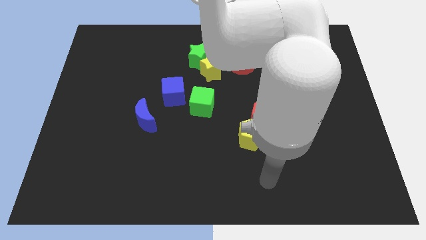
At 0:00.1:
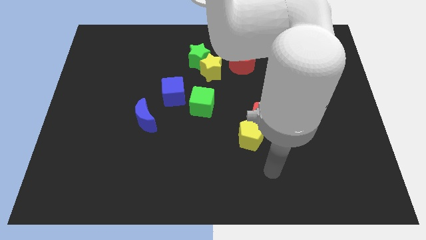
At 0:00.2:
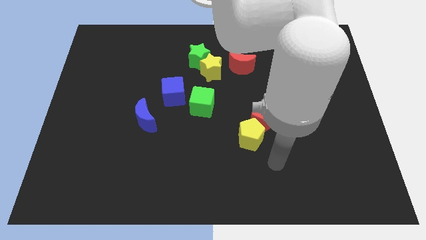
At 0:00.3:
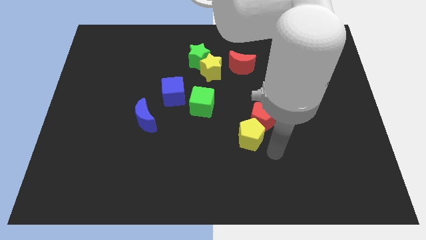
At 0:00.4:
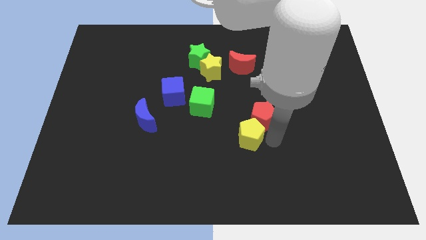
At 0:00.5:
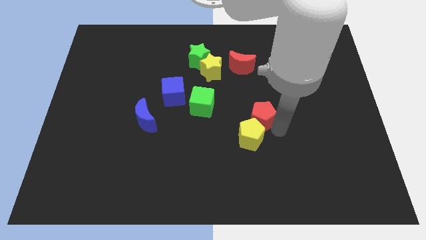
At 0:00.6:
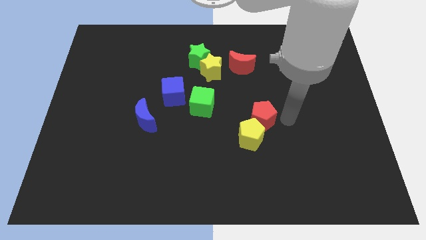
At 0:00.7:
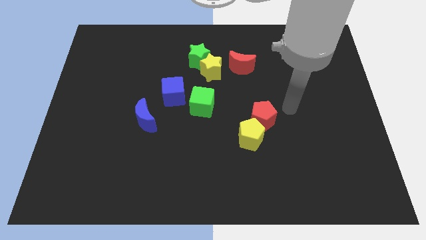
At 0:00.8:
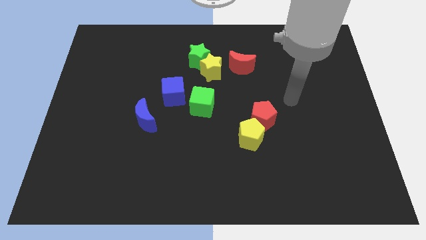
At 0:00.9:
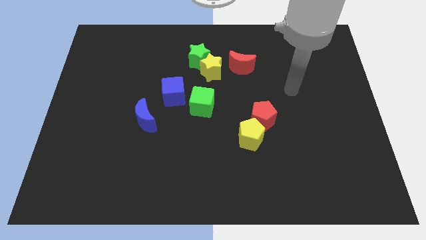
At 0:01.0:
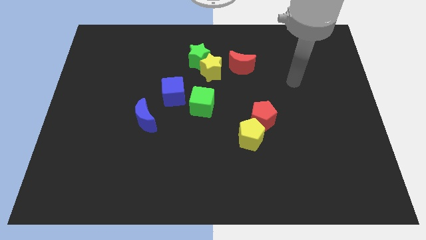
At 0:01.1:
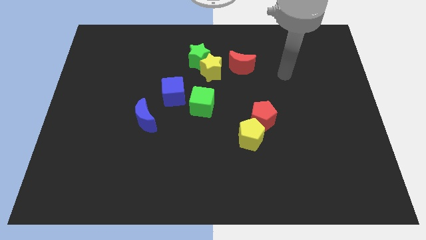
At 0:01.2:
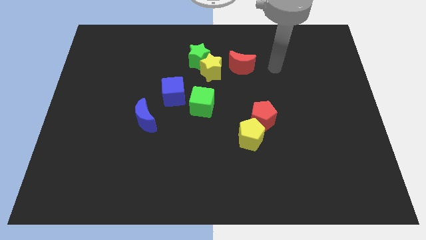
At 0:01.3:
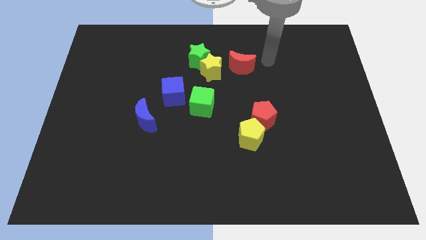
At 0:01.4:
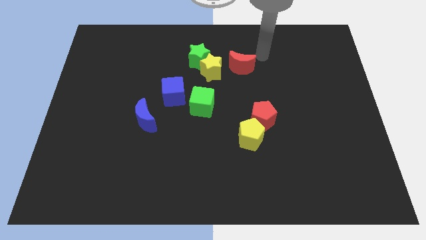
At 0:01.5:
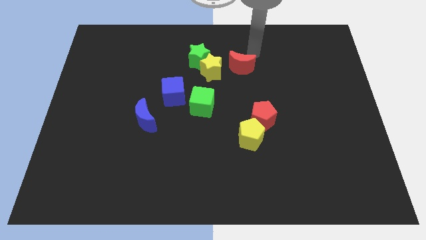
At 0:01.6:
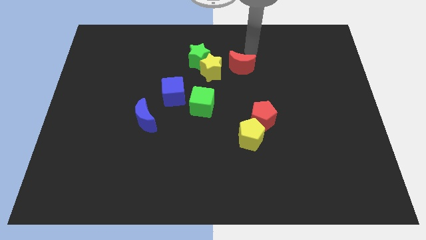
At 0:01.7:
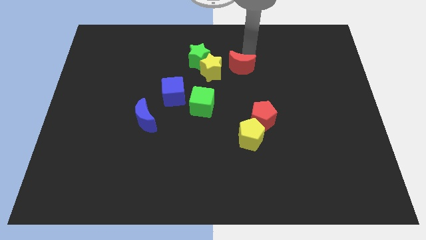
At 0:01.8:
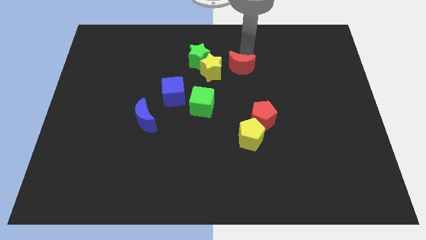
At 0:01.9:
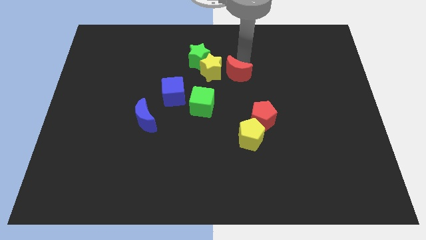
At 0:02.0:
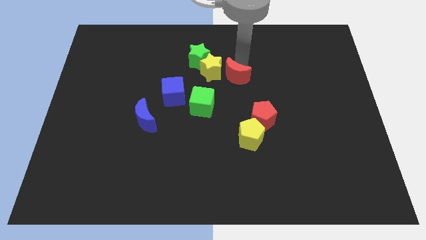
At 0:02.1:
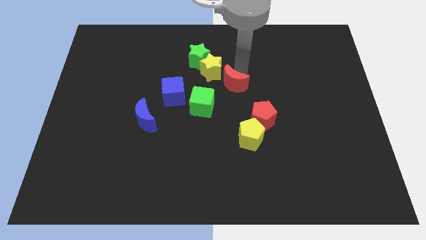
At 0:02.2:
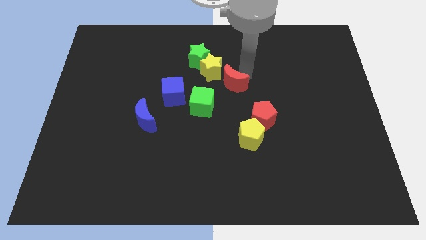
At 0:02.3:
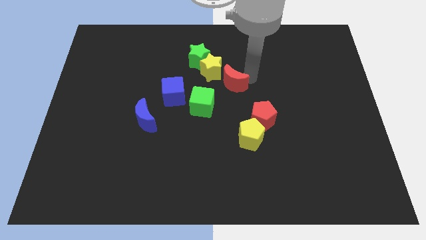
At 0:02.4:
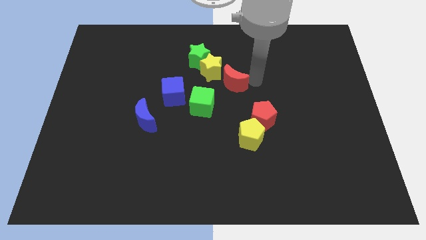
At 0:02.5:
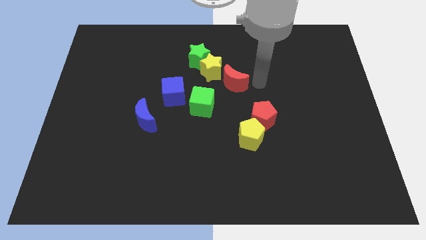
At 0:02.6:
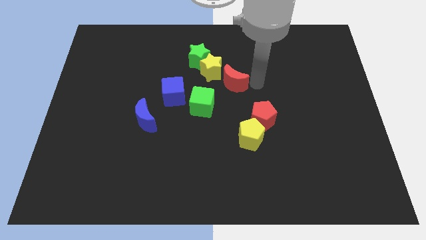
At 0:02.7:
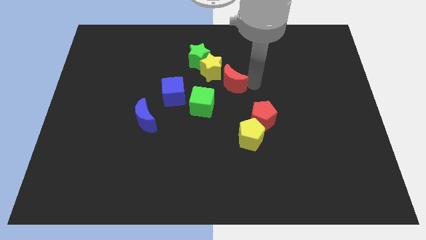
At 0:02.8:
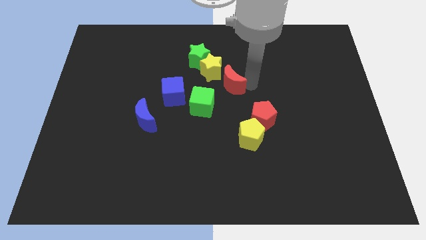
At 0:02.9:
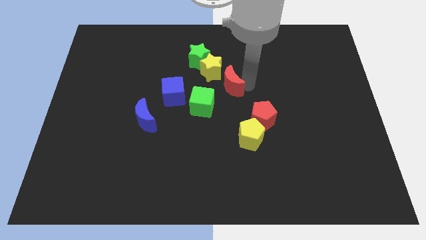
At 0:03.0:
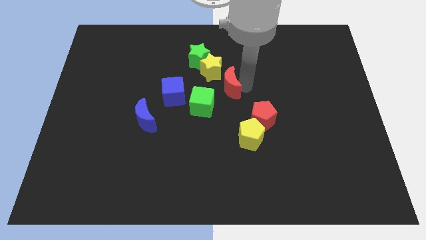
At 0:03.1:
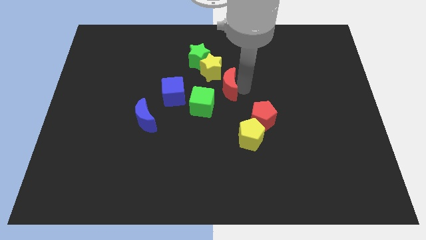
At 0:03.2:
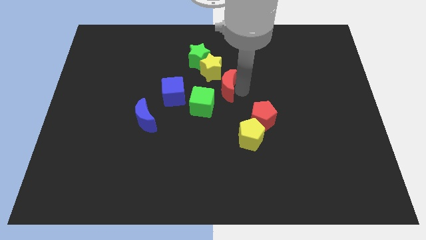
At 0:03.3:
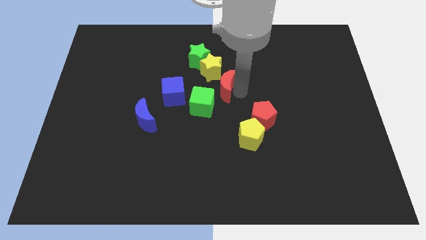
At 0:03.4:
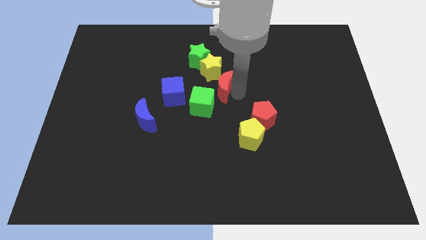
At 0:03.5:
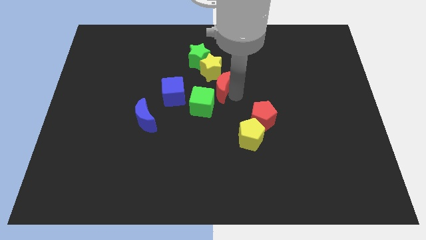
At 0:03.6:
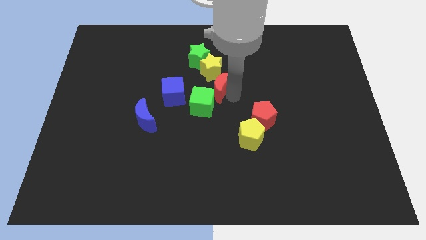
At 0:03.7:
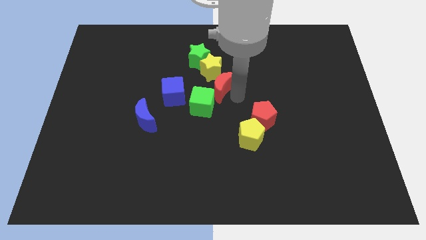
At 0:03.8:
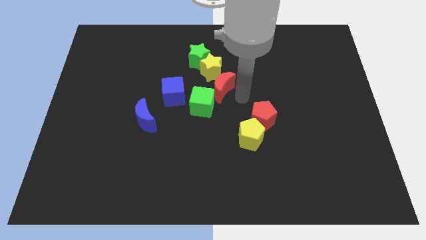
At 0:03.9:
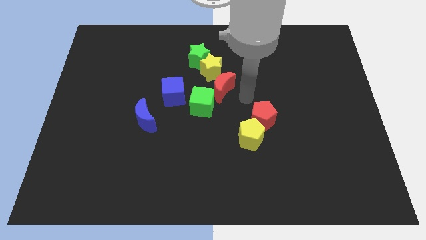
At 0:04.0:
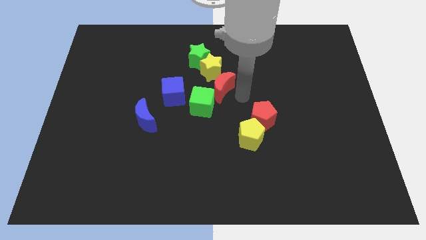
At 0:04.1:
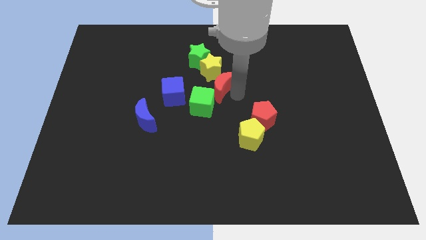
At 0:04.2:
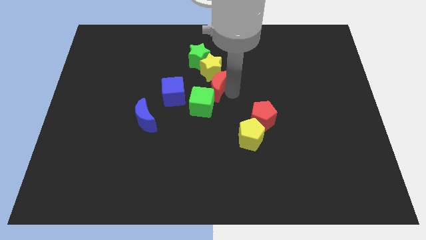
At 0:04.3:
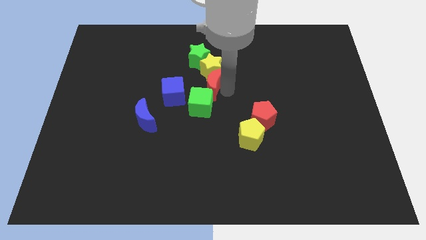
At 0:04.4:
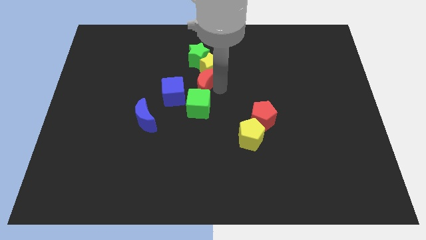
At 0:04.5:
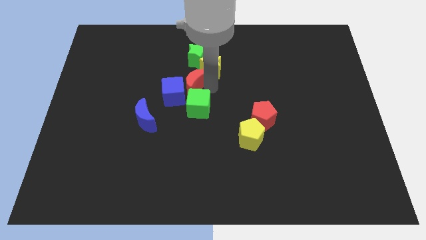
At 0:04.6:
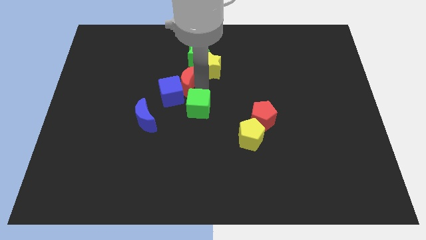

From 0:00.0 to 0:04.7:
put the red moon to the left side of the yellow star

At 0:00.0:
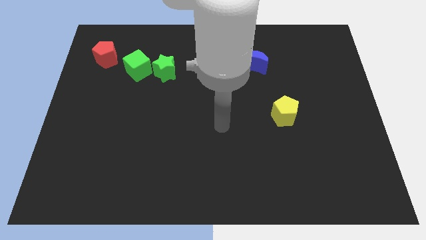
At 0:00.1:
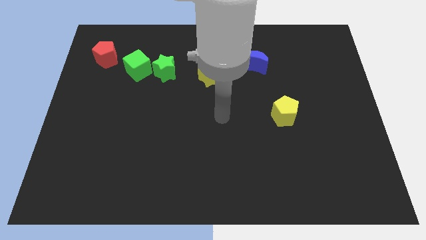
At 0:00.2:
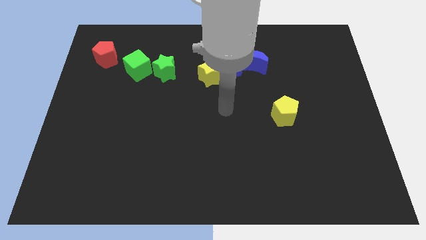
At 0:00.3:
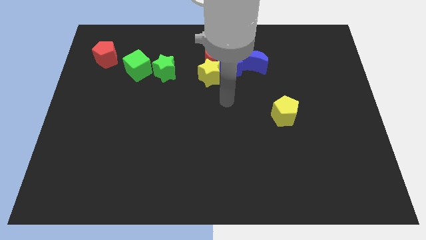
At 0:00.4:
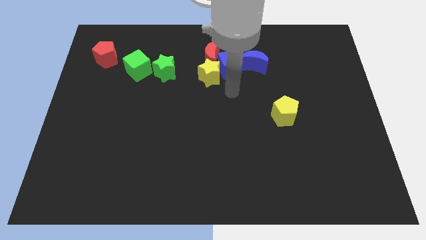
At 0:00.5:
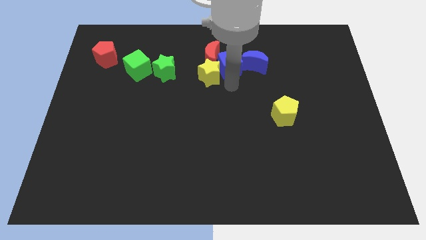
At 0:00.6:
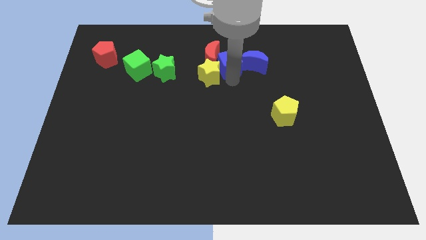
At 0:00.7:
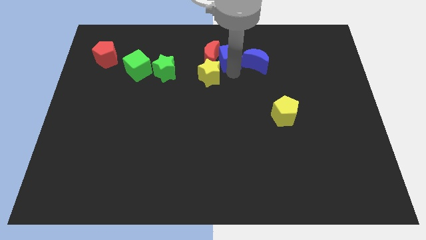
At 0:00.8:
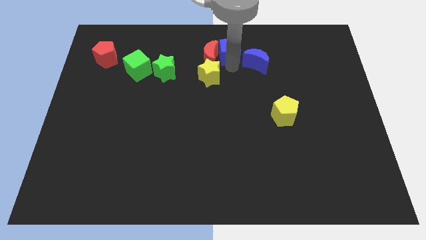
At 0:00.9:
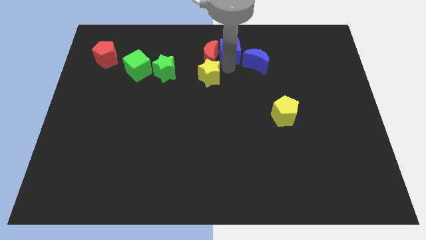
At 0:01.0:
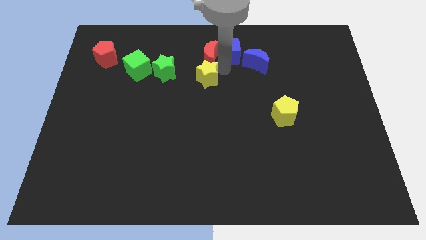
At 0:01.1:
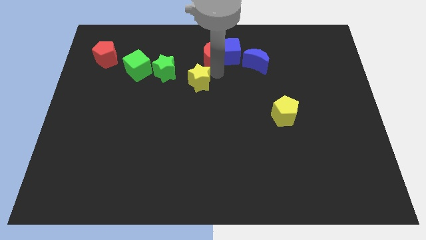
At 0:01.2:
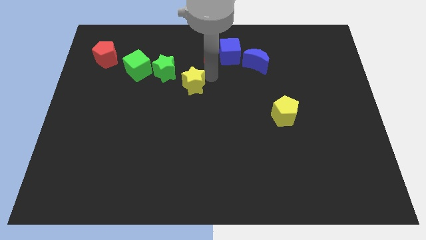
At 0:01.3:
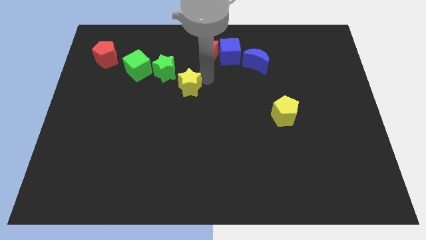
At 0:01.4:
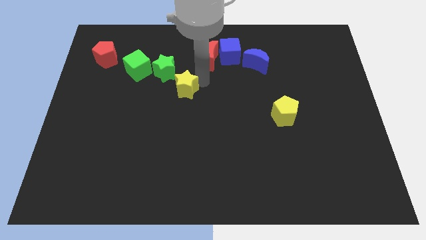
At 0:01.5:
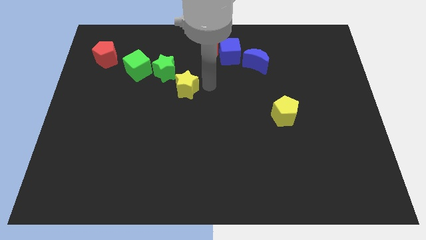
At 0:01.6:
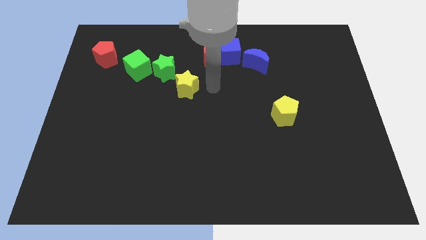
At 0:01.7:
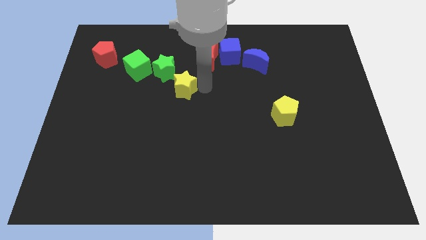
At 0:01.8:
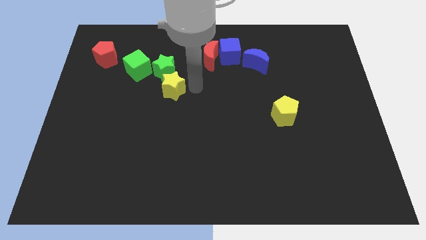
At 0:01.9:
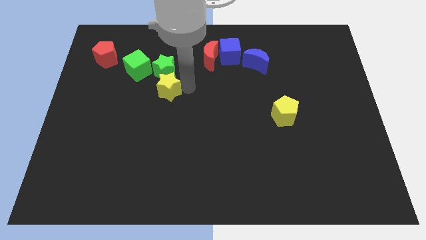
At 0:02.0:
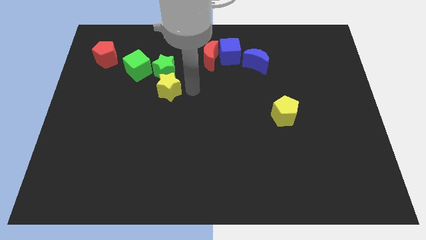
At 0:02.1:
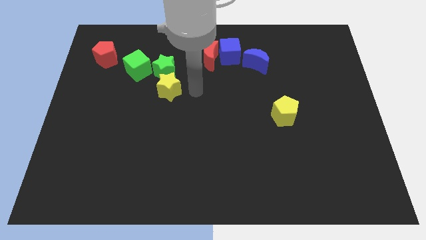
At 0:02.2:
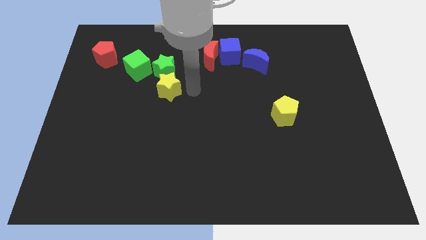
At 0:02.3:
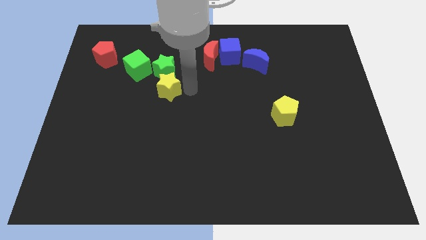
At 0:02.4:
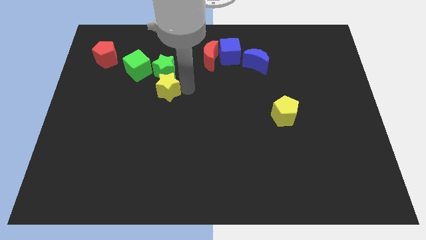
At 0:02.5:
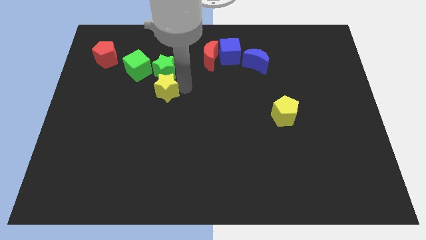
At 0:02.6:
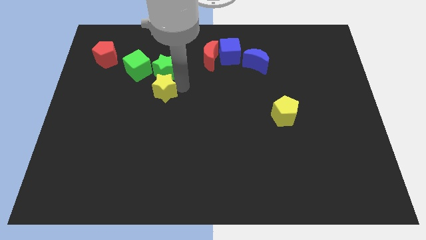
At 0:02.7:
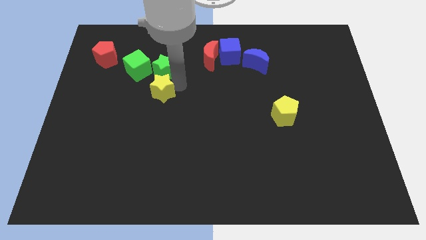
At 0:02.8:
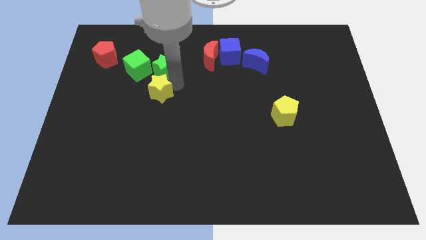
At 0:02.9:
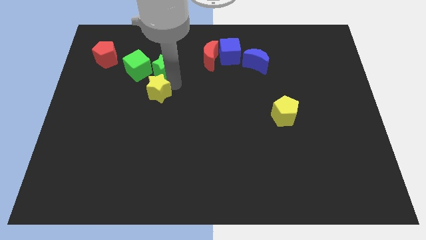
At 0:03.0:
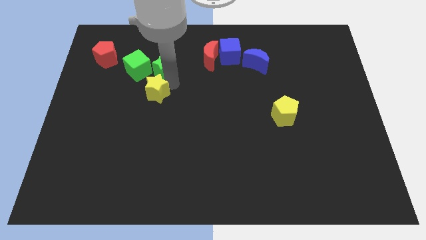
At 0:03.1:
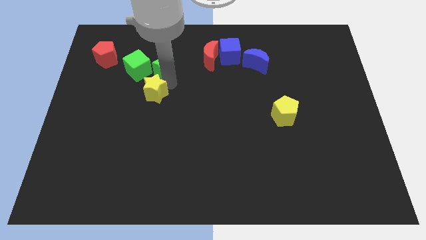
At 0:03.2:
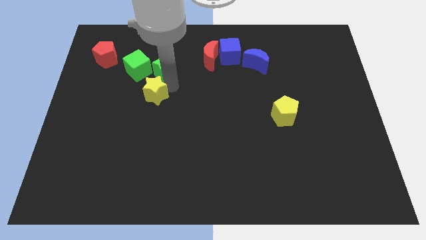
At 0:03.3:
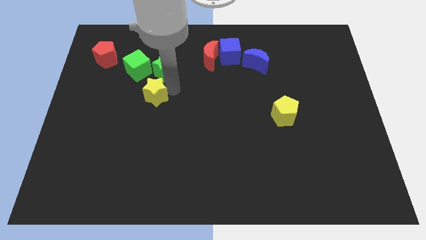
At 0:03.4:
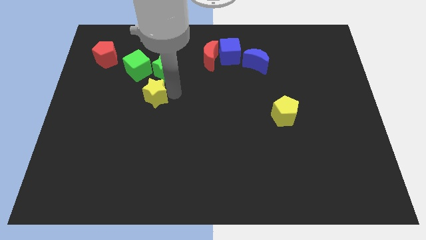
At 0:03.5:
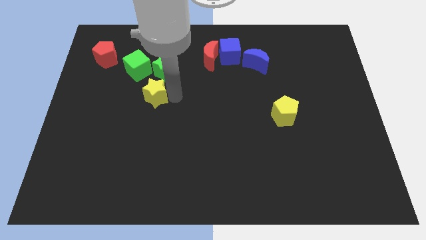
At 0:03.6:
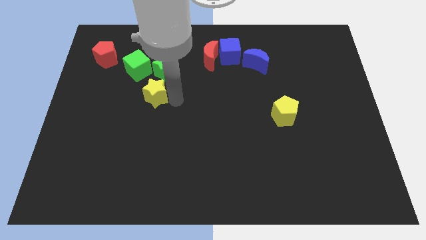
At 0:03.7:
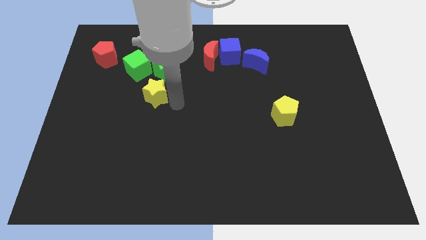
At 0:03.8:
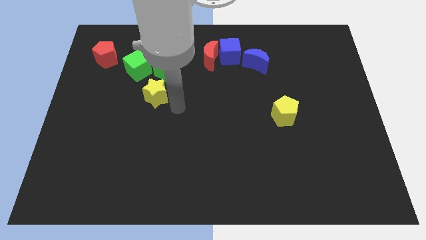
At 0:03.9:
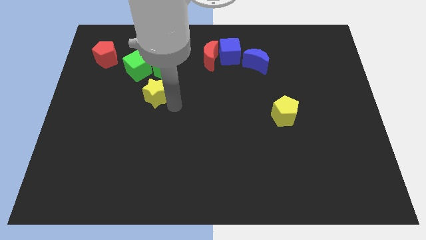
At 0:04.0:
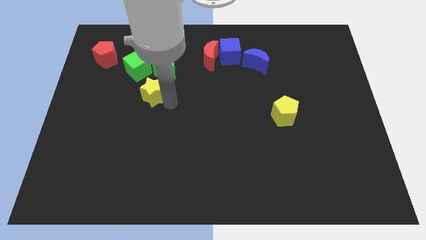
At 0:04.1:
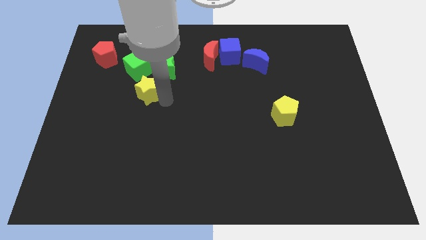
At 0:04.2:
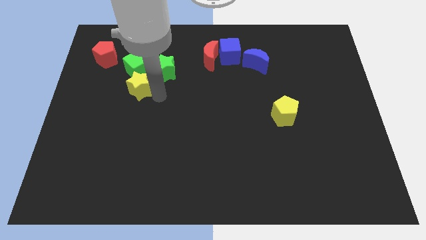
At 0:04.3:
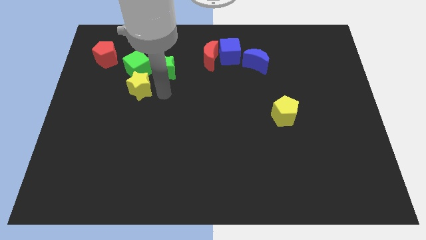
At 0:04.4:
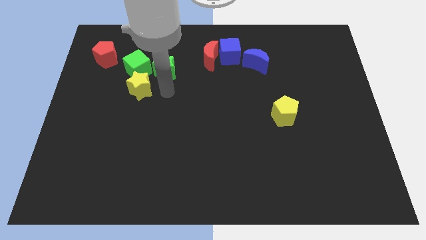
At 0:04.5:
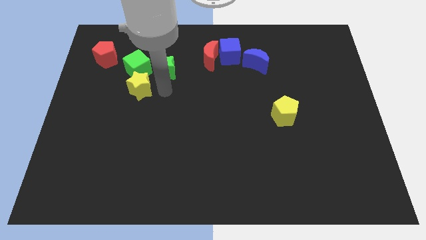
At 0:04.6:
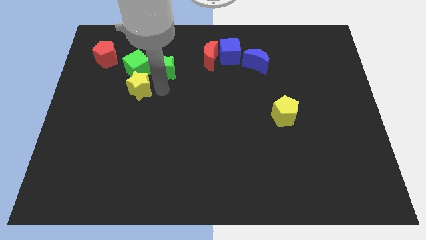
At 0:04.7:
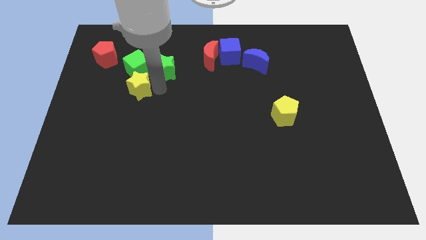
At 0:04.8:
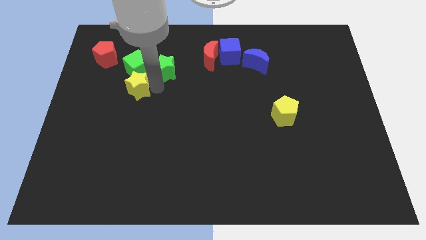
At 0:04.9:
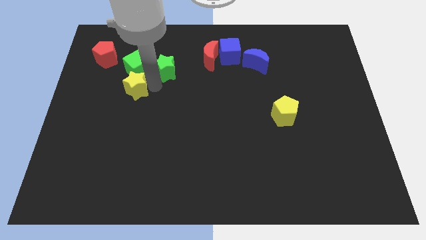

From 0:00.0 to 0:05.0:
put the yellow star to the bottom left of the green cube
